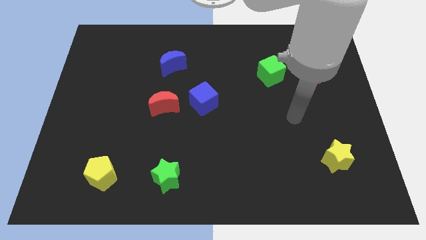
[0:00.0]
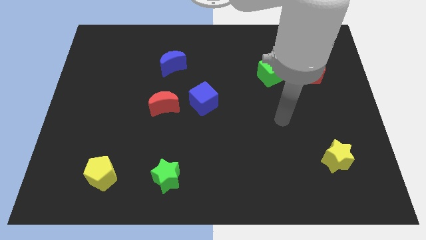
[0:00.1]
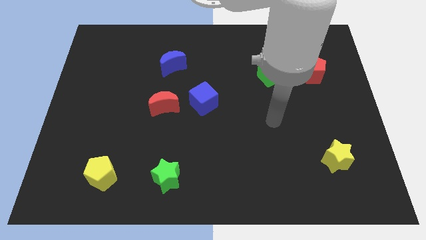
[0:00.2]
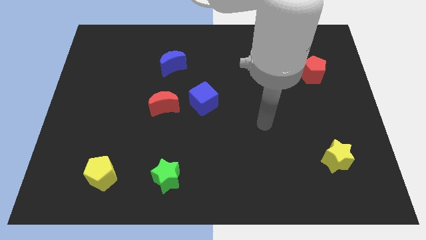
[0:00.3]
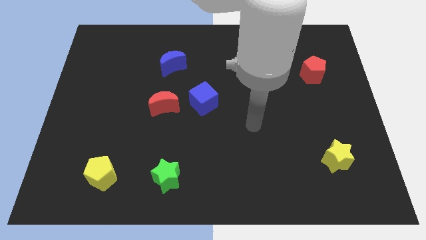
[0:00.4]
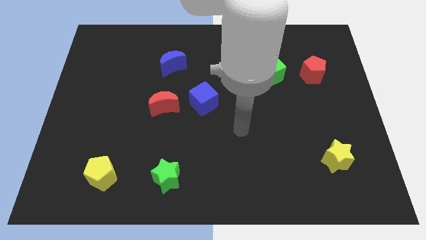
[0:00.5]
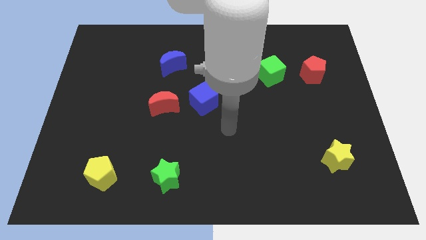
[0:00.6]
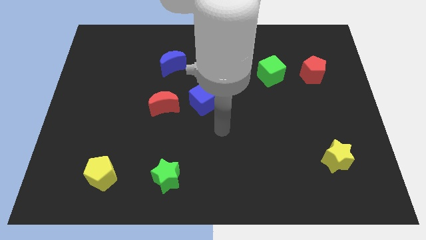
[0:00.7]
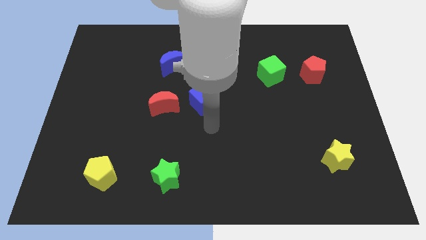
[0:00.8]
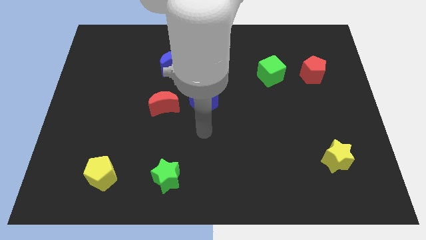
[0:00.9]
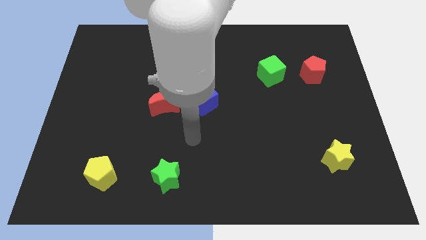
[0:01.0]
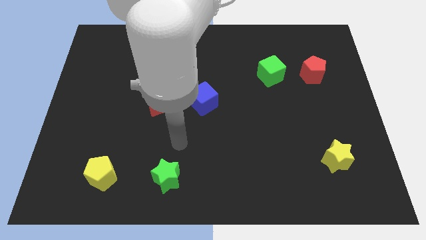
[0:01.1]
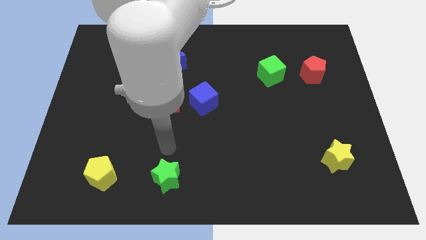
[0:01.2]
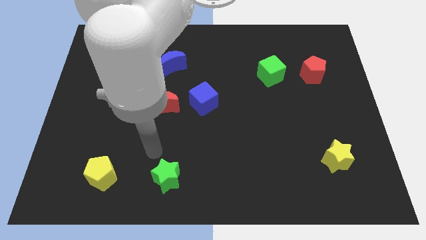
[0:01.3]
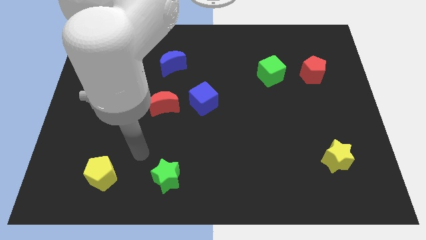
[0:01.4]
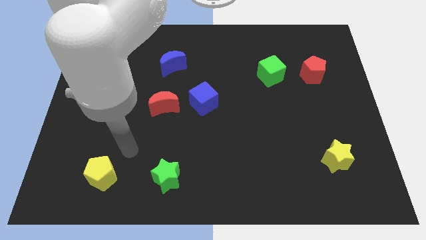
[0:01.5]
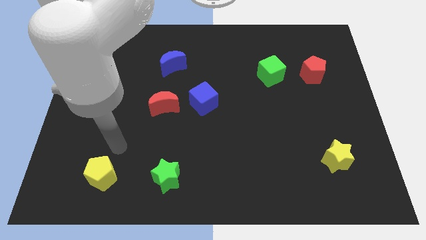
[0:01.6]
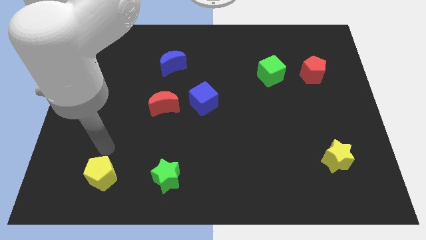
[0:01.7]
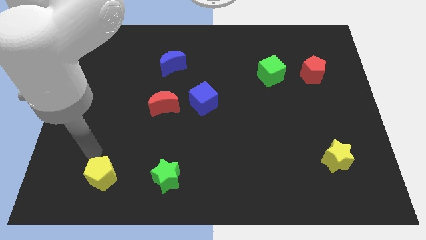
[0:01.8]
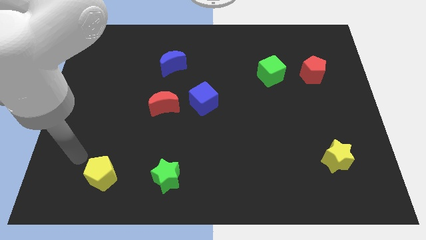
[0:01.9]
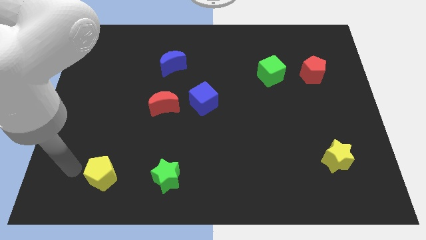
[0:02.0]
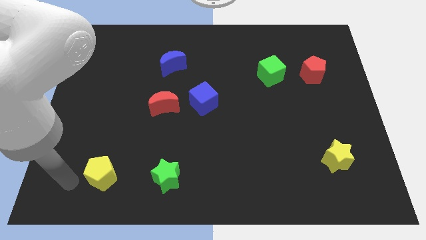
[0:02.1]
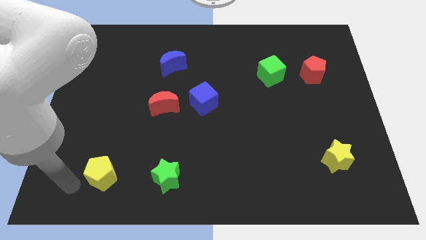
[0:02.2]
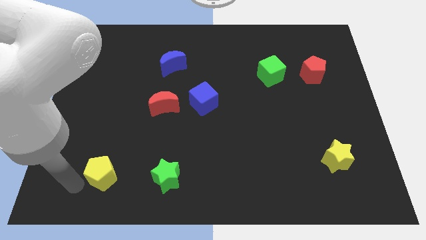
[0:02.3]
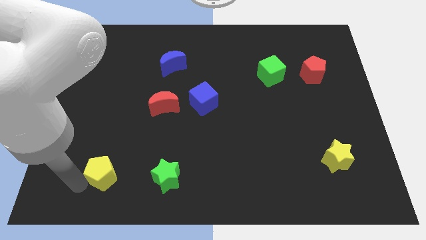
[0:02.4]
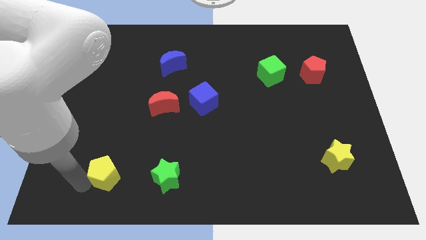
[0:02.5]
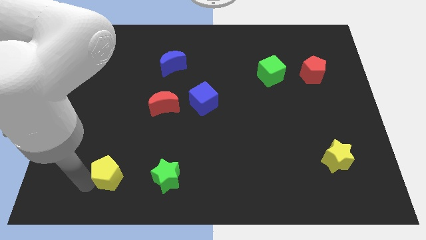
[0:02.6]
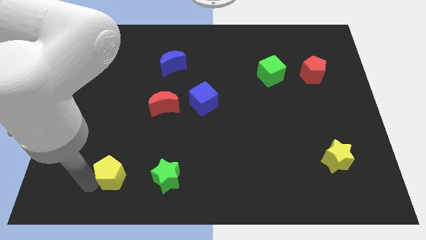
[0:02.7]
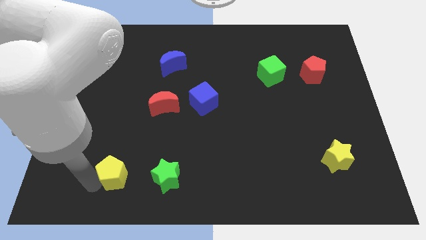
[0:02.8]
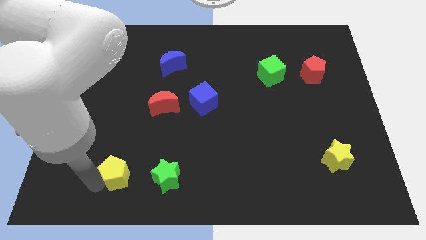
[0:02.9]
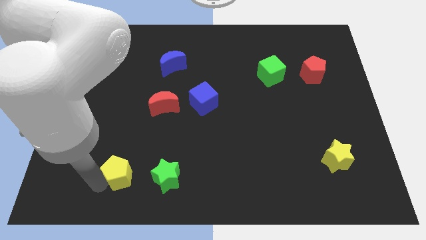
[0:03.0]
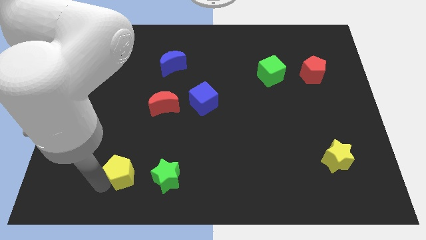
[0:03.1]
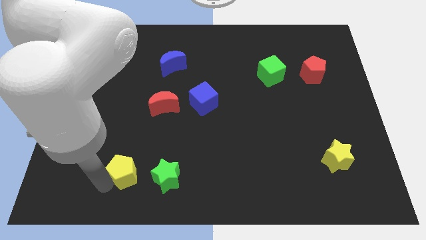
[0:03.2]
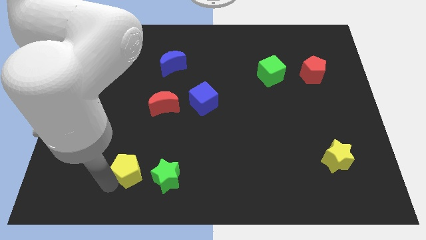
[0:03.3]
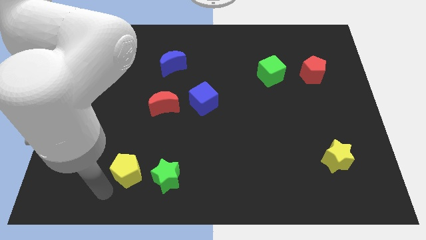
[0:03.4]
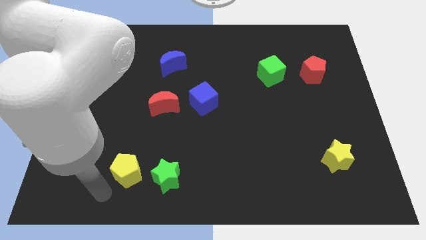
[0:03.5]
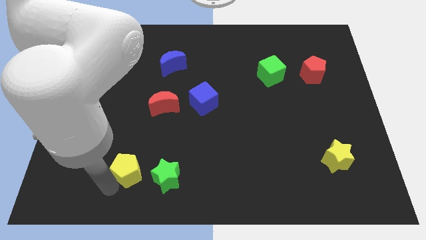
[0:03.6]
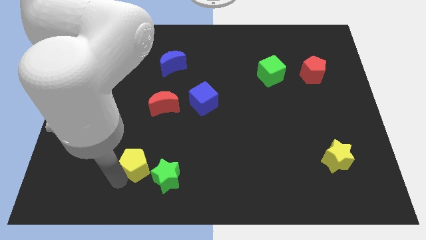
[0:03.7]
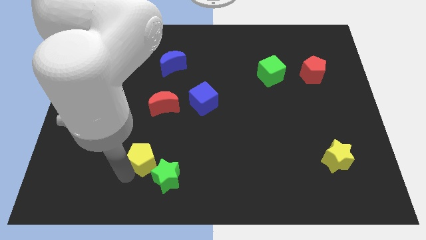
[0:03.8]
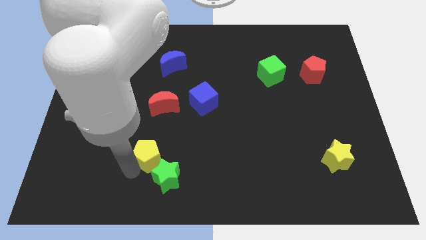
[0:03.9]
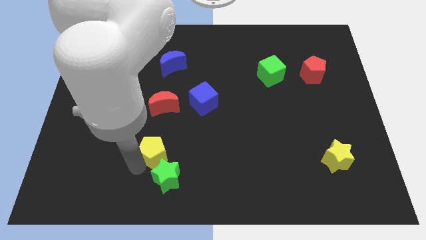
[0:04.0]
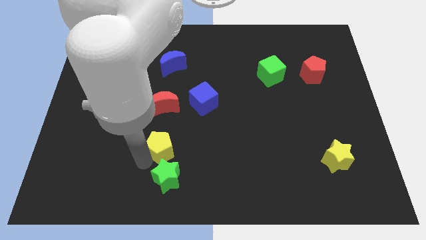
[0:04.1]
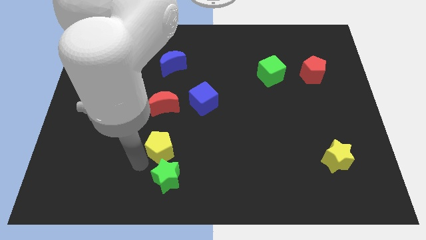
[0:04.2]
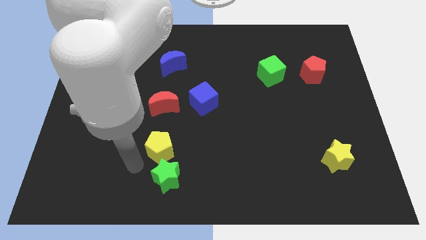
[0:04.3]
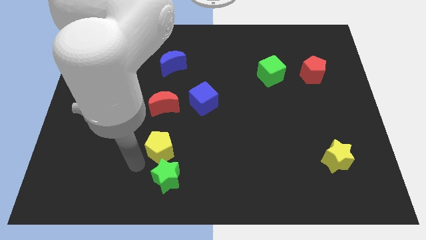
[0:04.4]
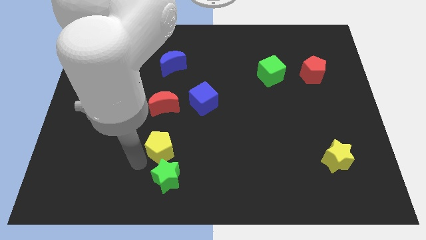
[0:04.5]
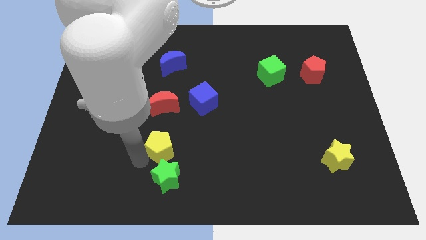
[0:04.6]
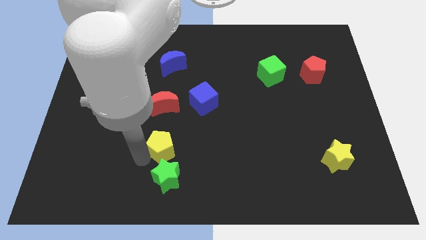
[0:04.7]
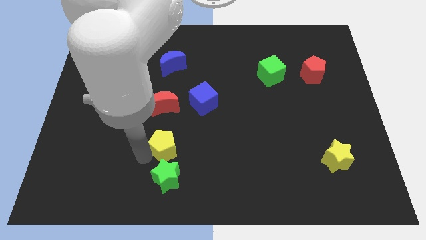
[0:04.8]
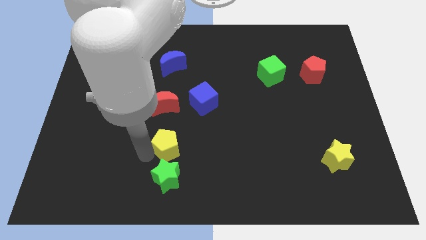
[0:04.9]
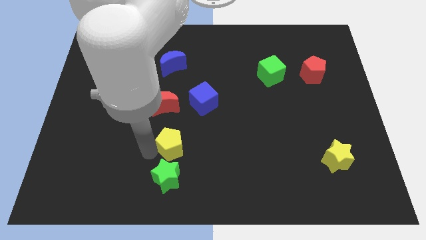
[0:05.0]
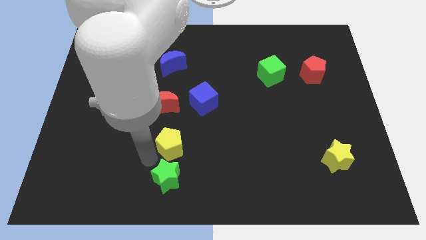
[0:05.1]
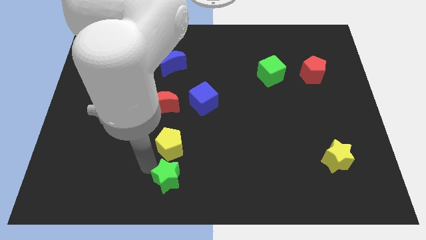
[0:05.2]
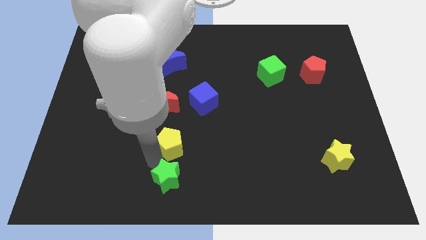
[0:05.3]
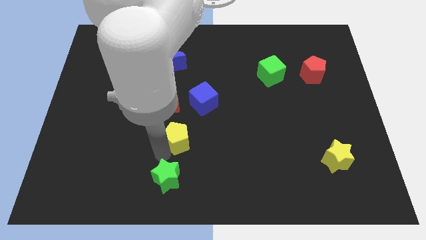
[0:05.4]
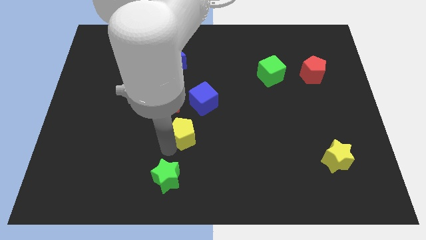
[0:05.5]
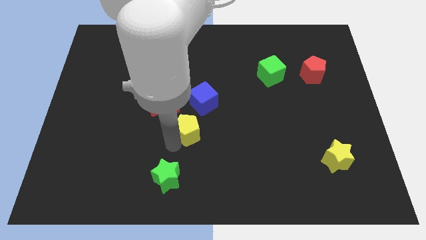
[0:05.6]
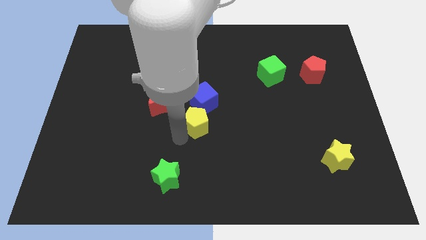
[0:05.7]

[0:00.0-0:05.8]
slide the yellow pentagon diagonally upwards and to the right

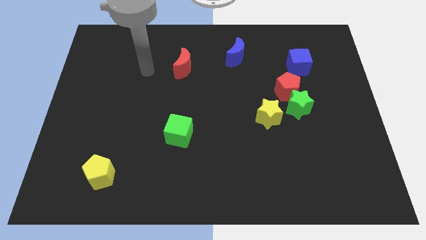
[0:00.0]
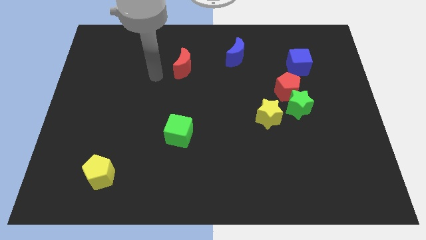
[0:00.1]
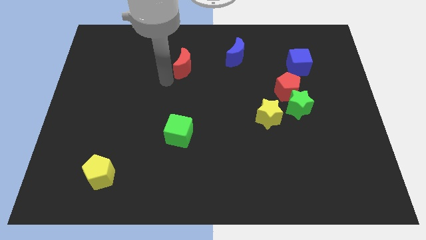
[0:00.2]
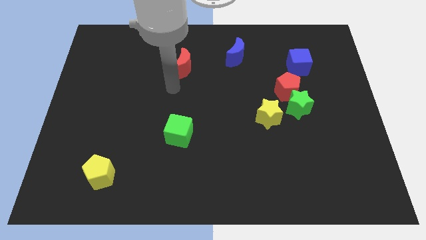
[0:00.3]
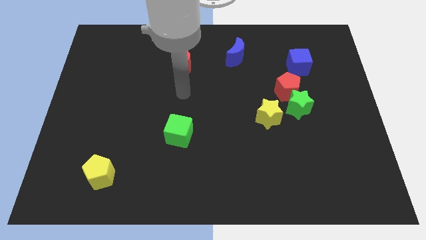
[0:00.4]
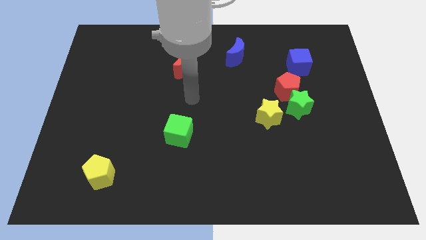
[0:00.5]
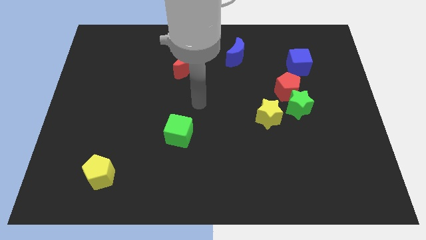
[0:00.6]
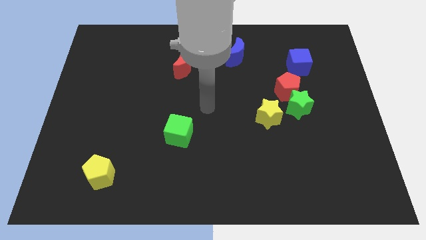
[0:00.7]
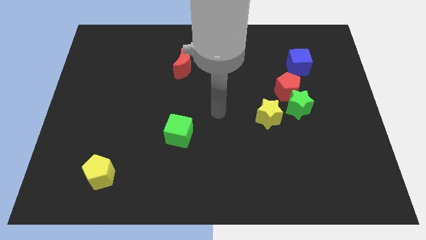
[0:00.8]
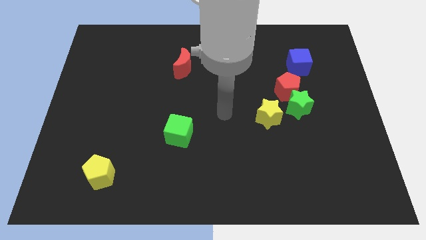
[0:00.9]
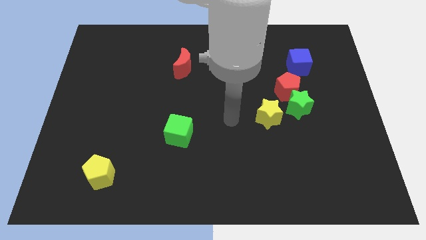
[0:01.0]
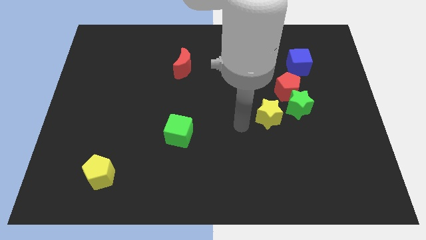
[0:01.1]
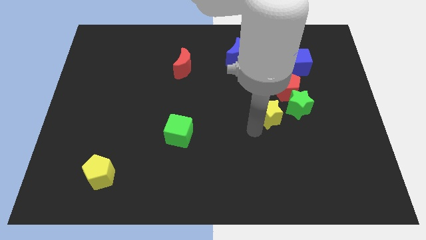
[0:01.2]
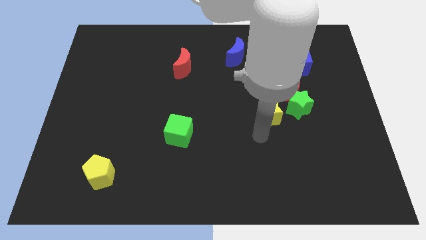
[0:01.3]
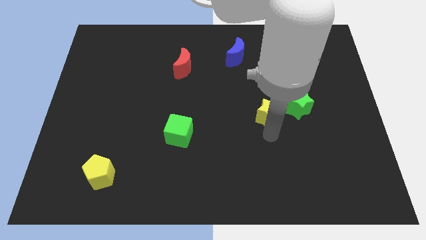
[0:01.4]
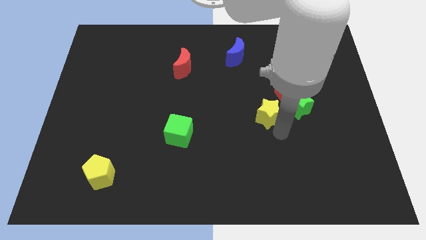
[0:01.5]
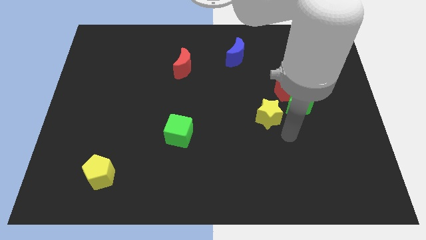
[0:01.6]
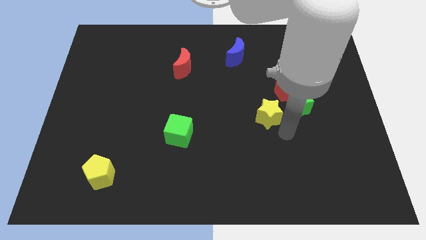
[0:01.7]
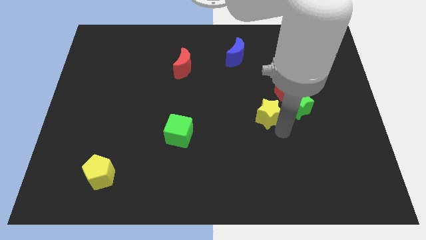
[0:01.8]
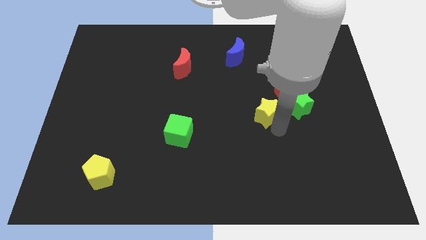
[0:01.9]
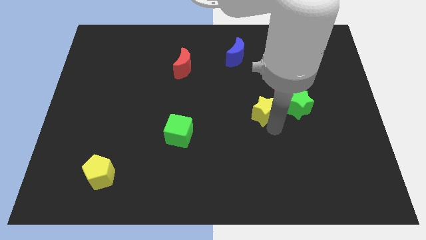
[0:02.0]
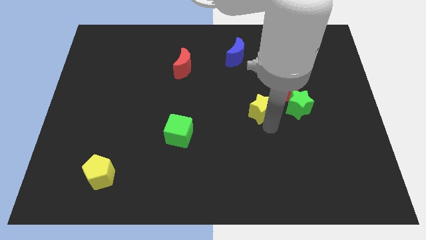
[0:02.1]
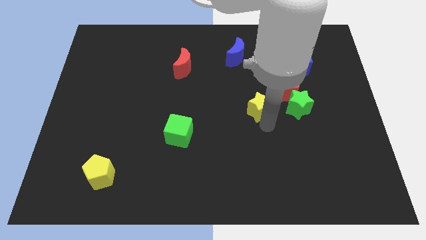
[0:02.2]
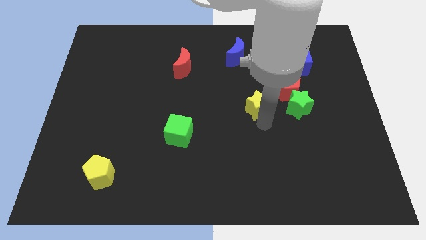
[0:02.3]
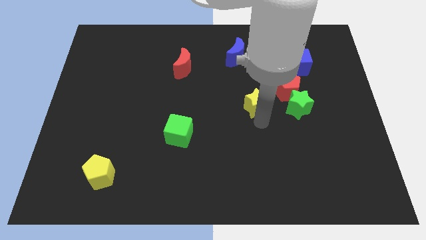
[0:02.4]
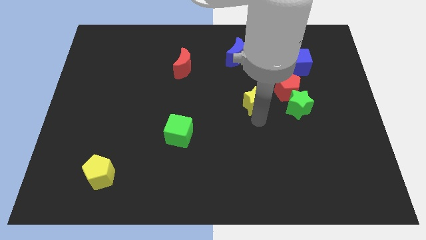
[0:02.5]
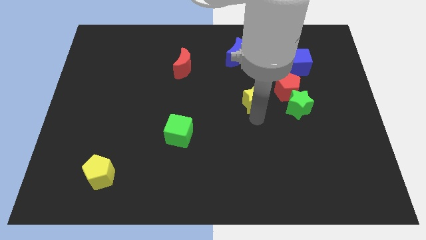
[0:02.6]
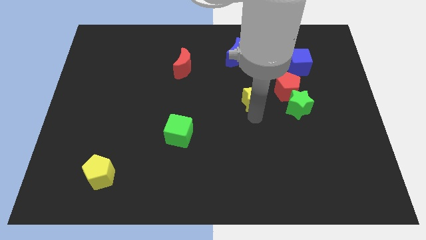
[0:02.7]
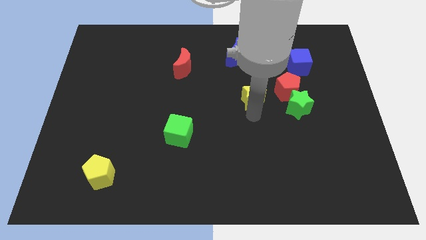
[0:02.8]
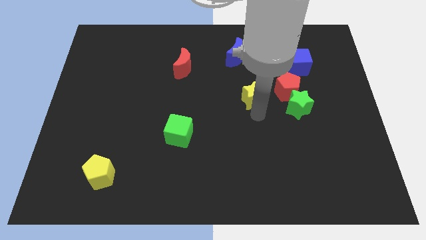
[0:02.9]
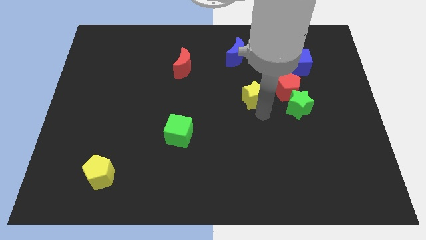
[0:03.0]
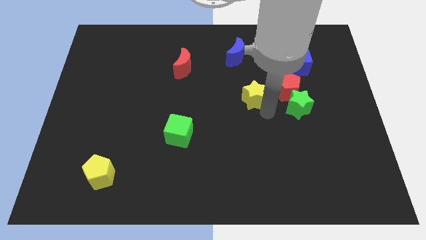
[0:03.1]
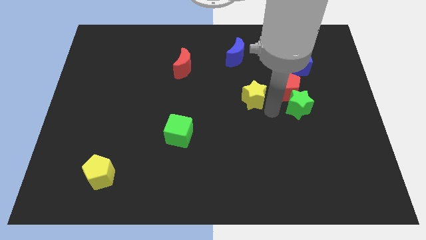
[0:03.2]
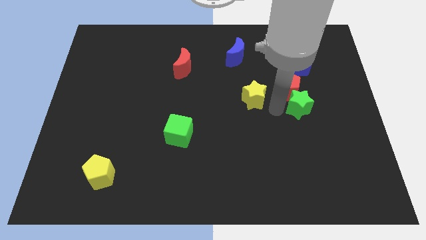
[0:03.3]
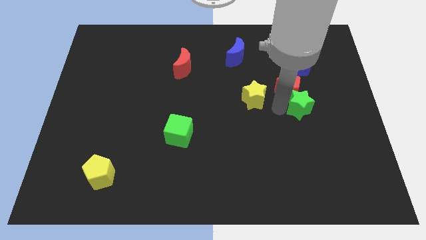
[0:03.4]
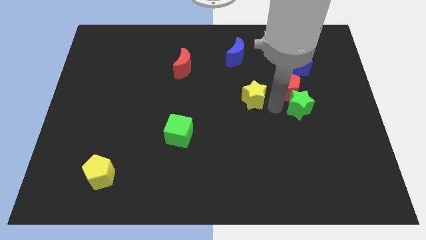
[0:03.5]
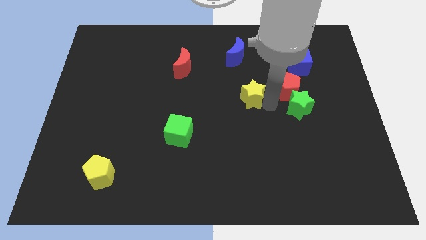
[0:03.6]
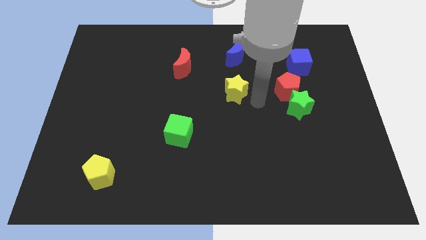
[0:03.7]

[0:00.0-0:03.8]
slide the yellow star upwards and then left slightly
